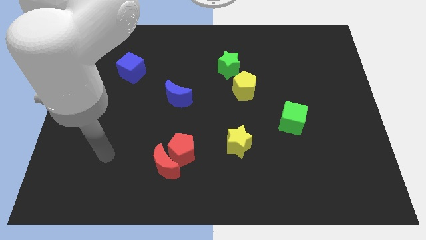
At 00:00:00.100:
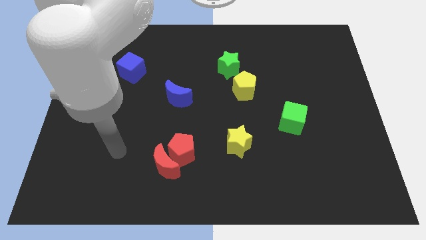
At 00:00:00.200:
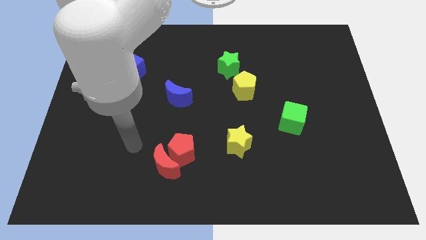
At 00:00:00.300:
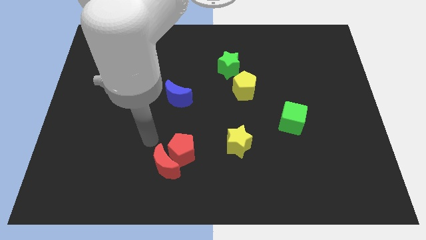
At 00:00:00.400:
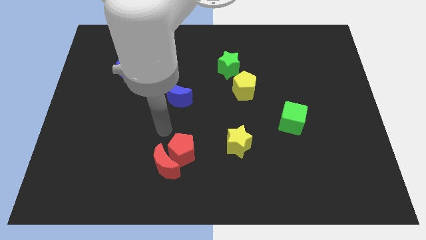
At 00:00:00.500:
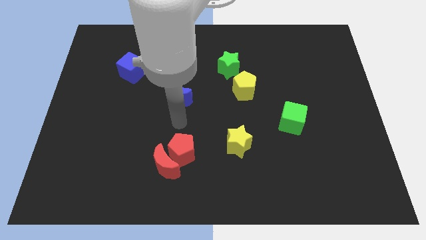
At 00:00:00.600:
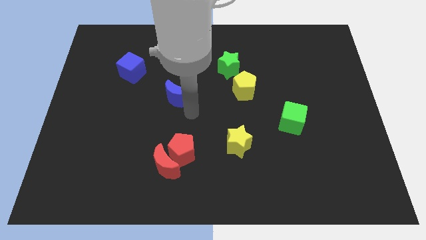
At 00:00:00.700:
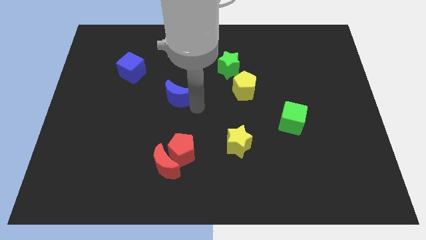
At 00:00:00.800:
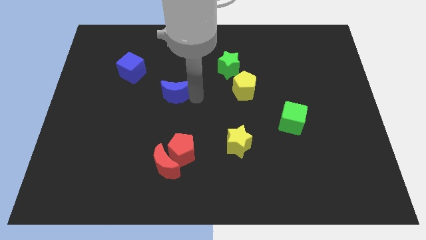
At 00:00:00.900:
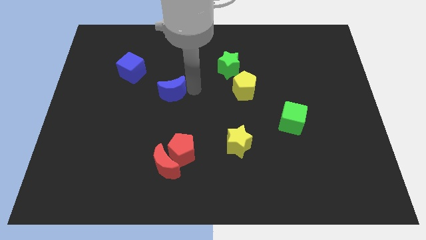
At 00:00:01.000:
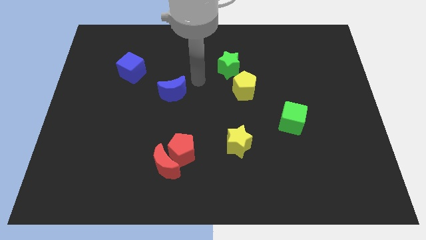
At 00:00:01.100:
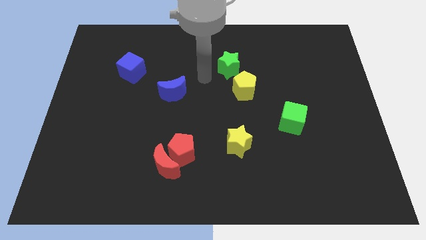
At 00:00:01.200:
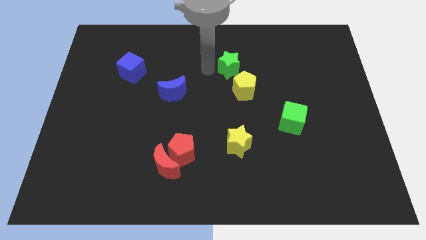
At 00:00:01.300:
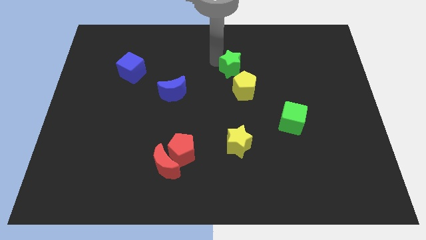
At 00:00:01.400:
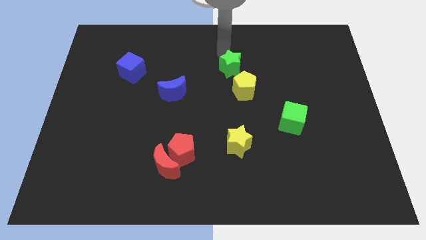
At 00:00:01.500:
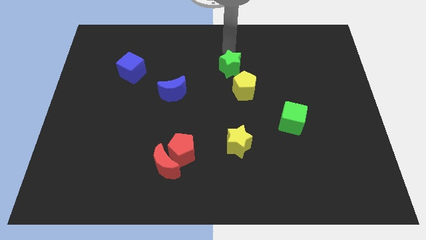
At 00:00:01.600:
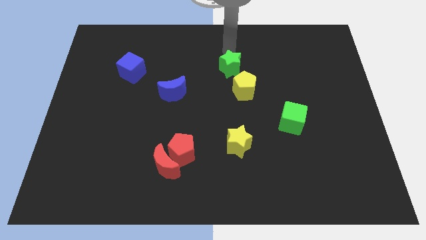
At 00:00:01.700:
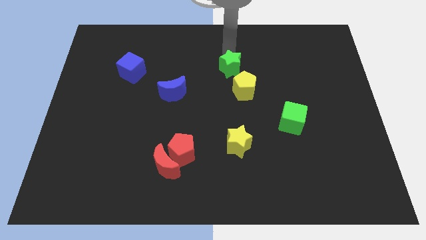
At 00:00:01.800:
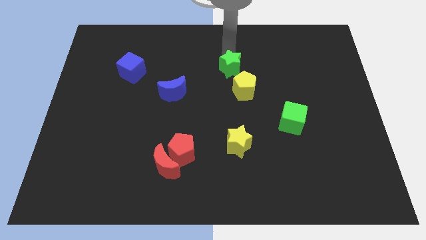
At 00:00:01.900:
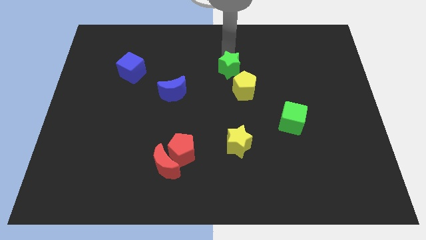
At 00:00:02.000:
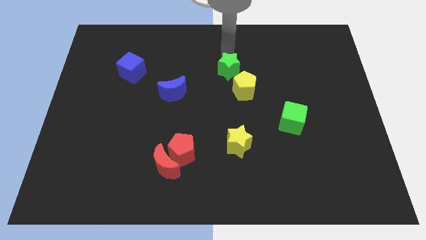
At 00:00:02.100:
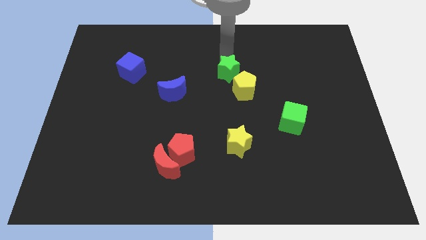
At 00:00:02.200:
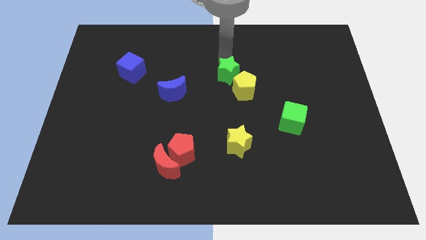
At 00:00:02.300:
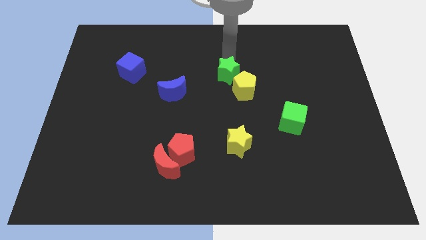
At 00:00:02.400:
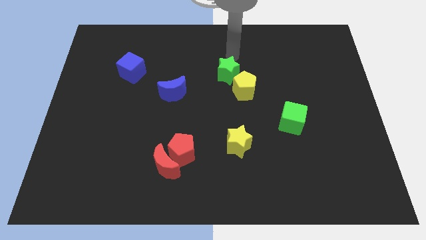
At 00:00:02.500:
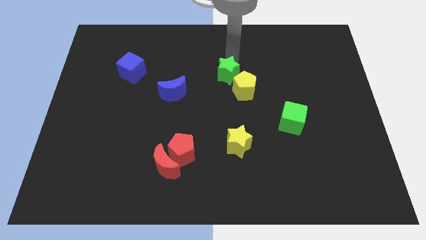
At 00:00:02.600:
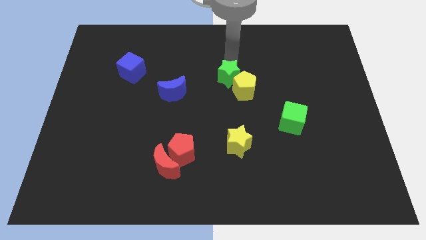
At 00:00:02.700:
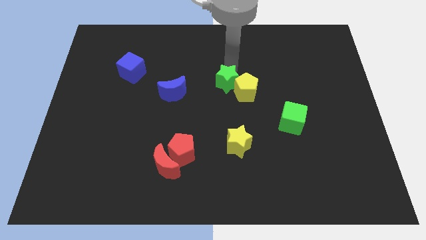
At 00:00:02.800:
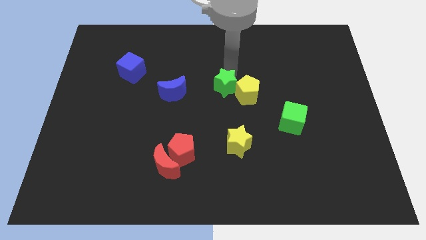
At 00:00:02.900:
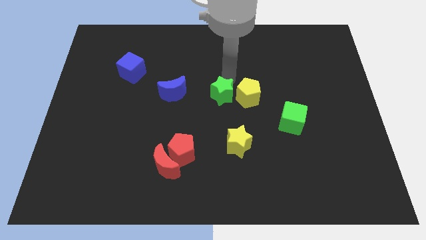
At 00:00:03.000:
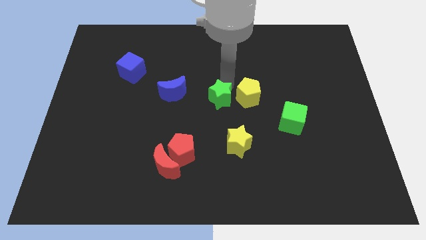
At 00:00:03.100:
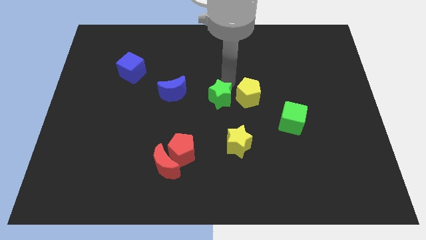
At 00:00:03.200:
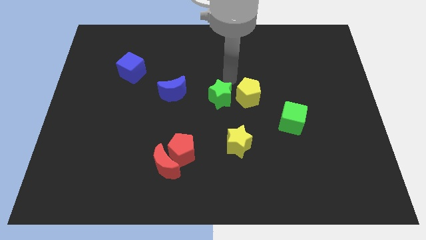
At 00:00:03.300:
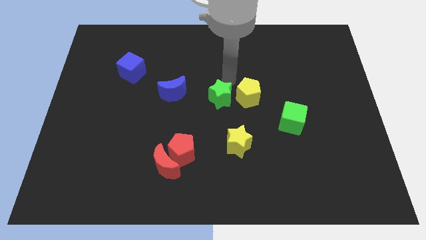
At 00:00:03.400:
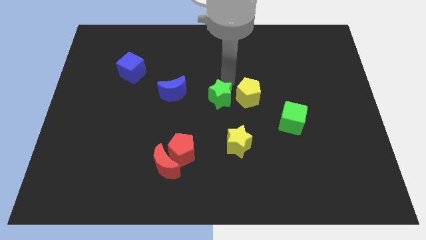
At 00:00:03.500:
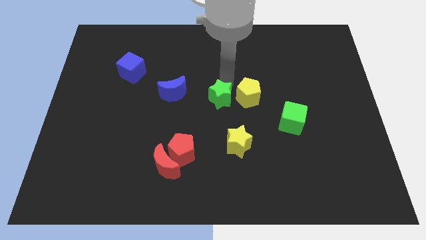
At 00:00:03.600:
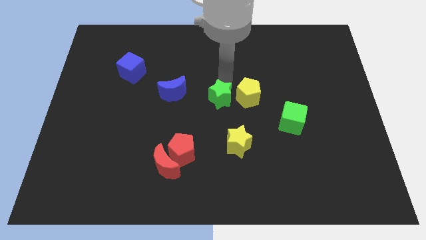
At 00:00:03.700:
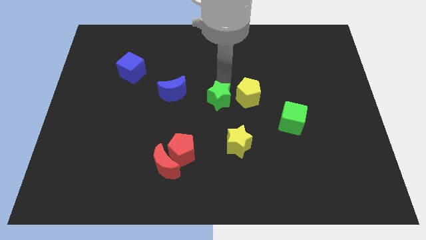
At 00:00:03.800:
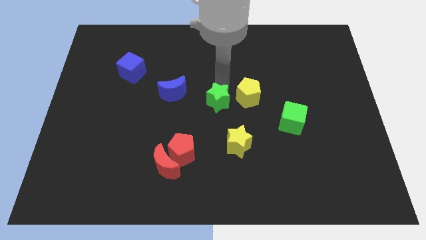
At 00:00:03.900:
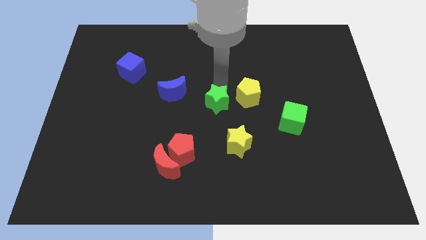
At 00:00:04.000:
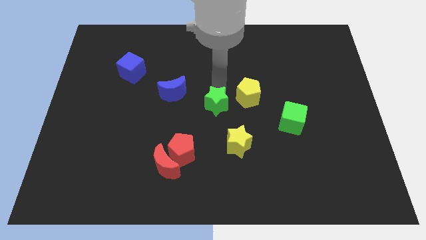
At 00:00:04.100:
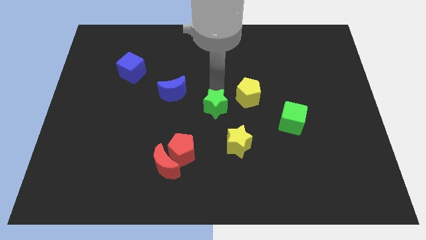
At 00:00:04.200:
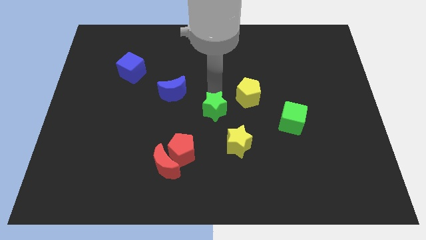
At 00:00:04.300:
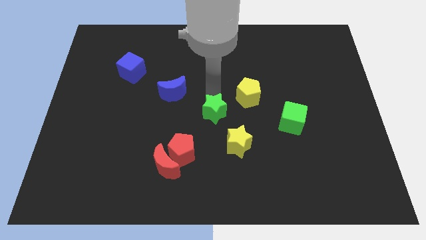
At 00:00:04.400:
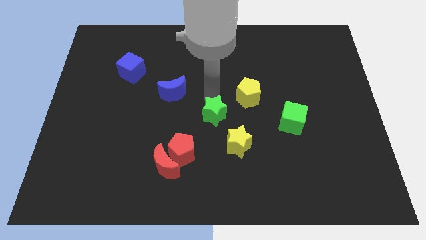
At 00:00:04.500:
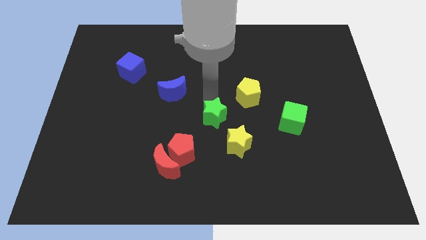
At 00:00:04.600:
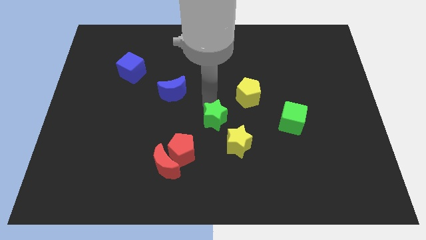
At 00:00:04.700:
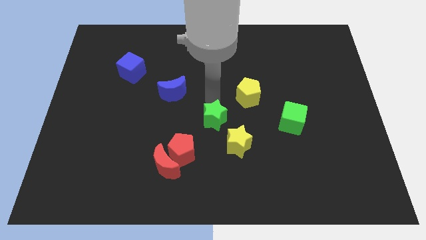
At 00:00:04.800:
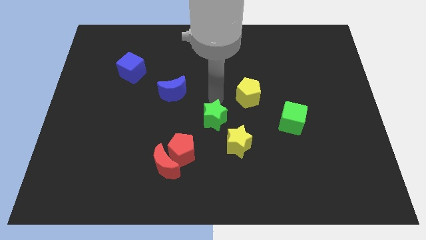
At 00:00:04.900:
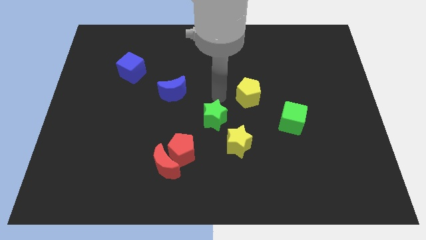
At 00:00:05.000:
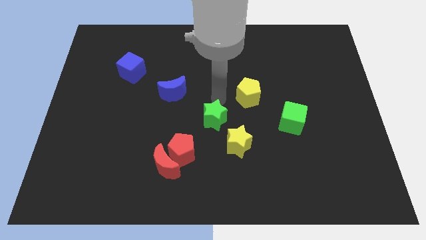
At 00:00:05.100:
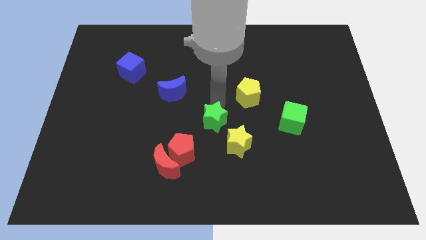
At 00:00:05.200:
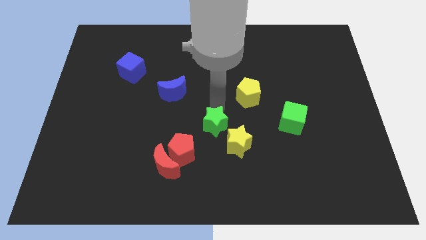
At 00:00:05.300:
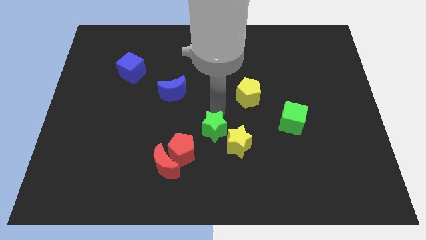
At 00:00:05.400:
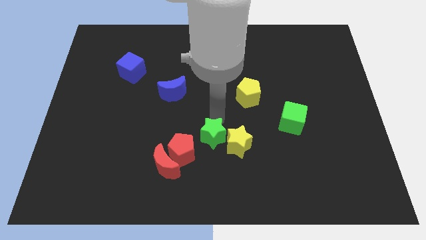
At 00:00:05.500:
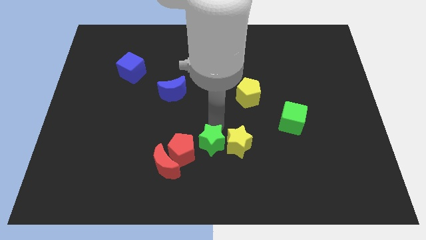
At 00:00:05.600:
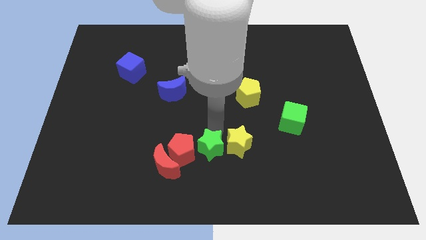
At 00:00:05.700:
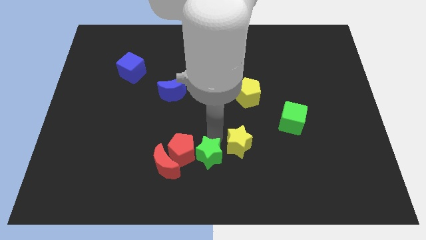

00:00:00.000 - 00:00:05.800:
push the green star to the bottom
